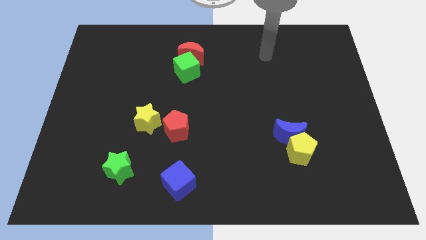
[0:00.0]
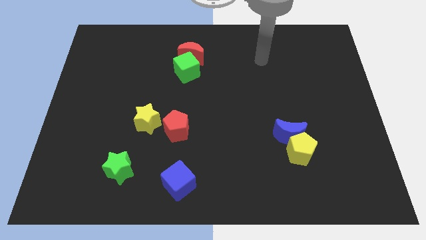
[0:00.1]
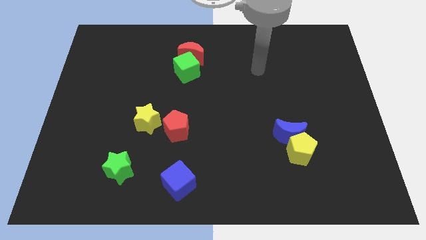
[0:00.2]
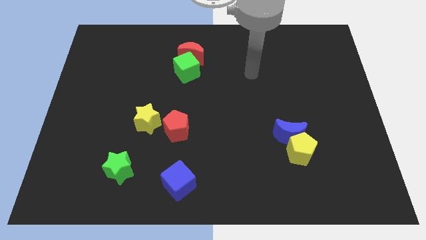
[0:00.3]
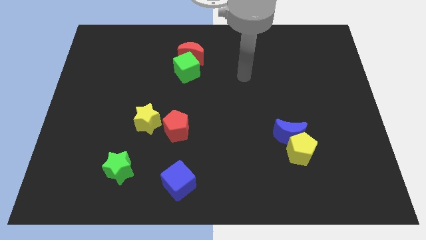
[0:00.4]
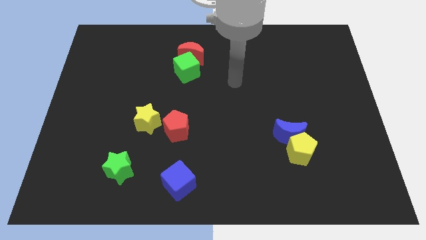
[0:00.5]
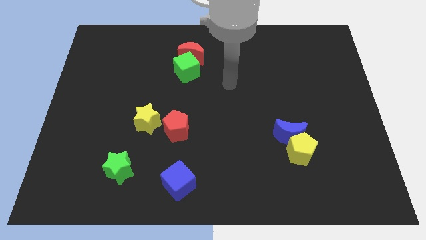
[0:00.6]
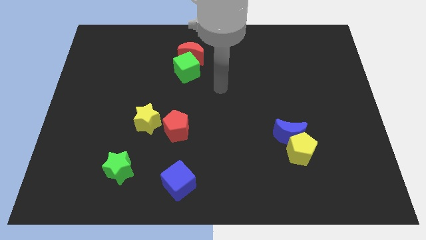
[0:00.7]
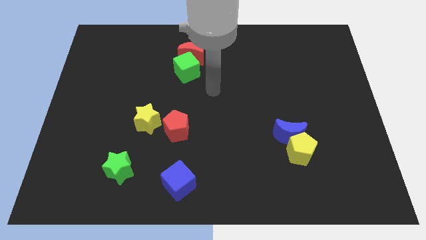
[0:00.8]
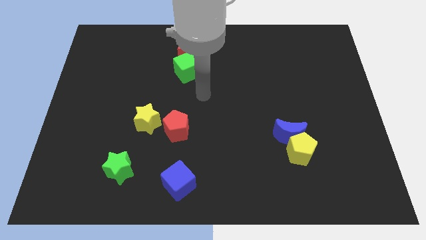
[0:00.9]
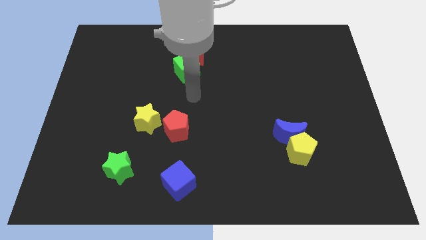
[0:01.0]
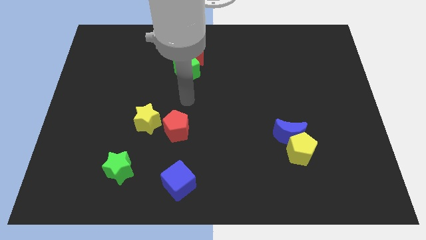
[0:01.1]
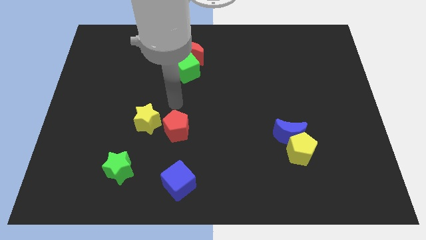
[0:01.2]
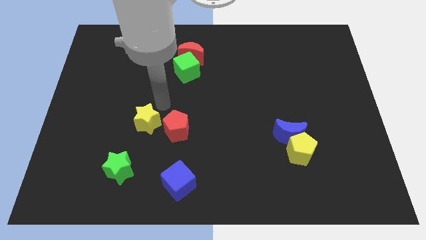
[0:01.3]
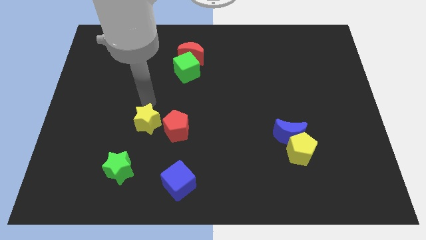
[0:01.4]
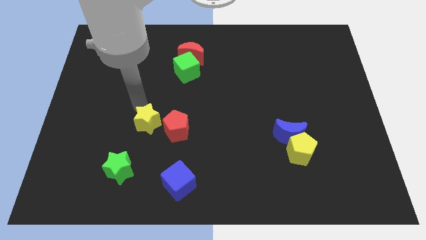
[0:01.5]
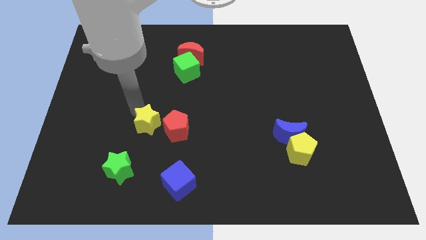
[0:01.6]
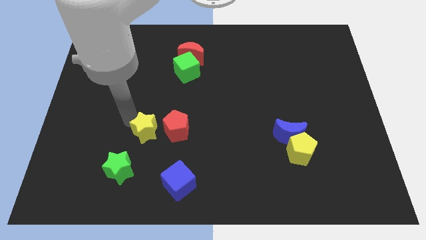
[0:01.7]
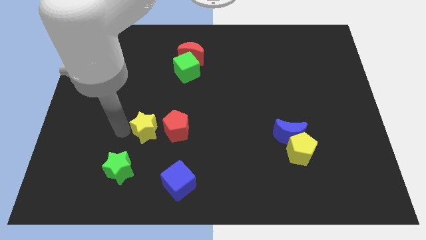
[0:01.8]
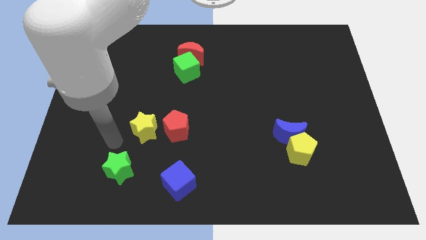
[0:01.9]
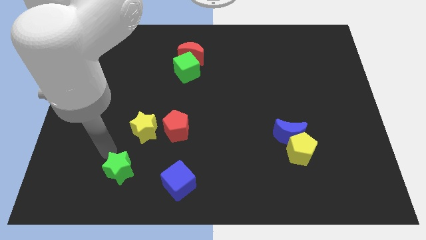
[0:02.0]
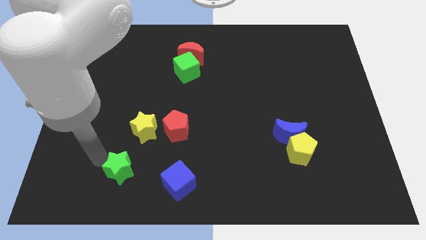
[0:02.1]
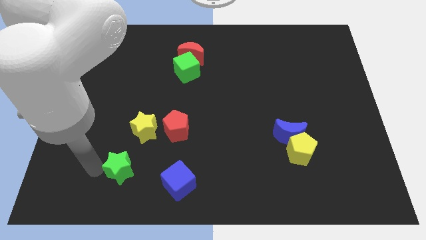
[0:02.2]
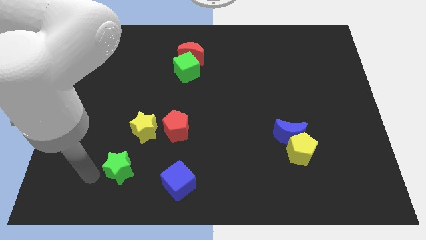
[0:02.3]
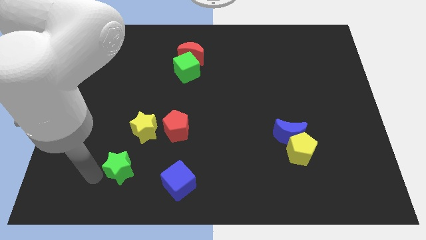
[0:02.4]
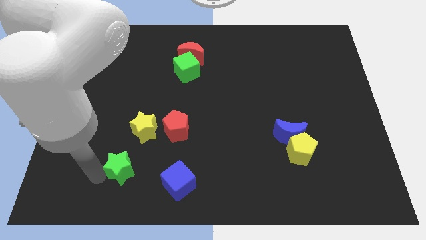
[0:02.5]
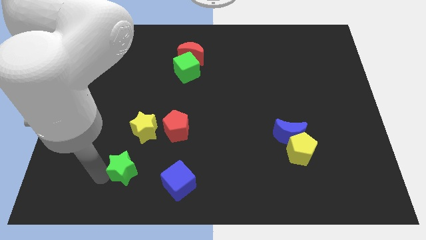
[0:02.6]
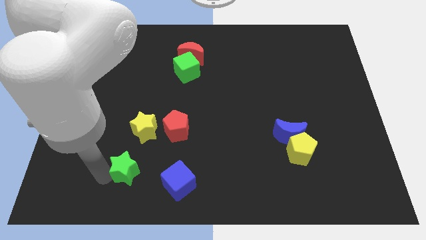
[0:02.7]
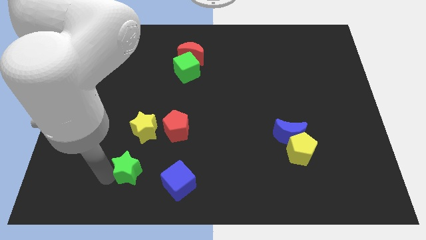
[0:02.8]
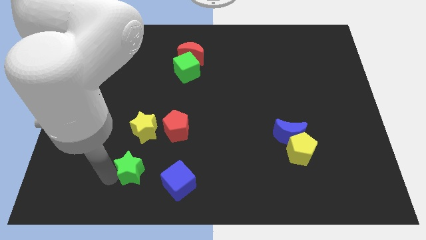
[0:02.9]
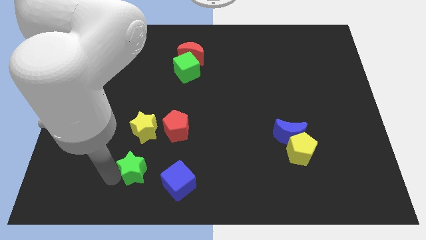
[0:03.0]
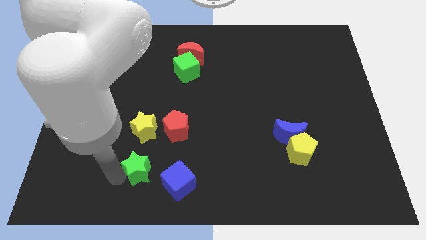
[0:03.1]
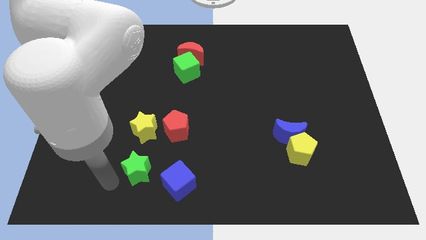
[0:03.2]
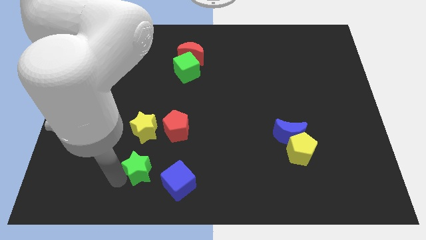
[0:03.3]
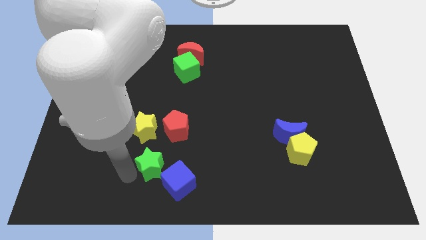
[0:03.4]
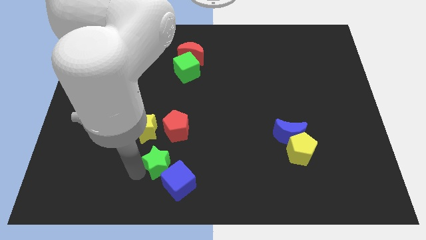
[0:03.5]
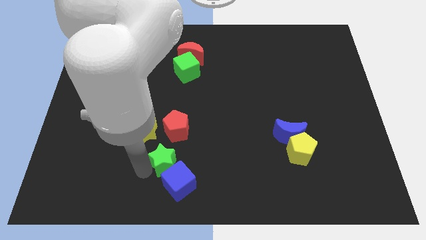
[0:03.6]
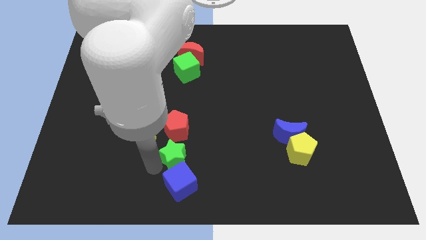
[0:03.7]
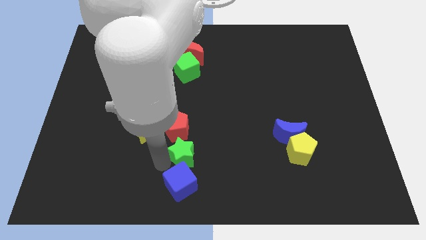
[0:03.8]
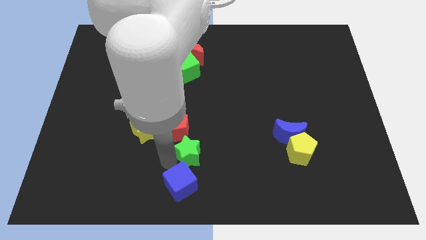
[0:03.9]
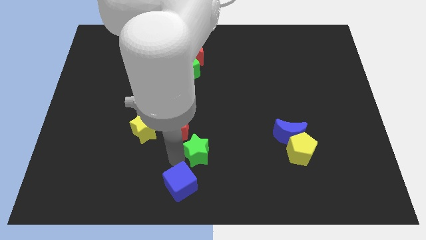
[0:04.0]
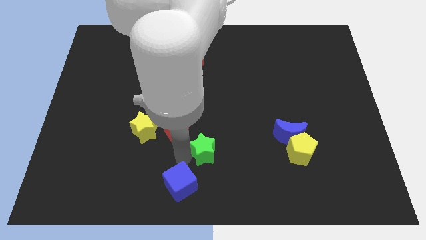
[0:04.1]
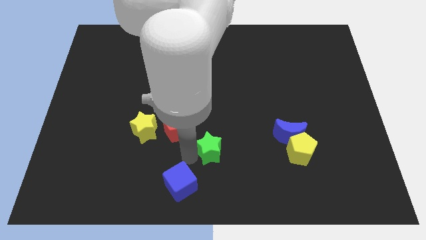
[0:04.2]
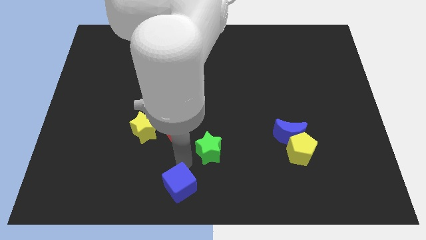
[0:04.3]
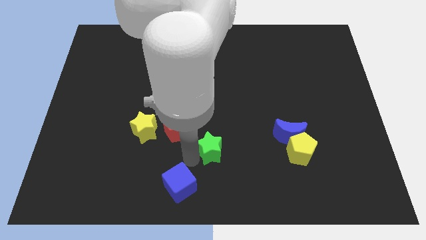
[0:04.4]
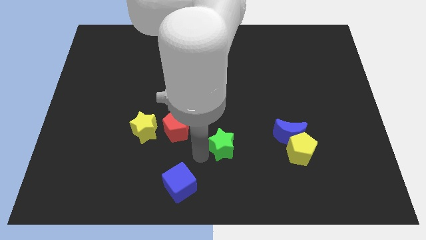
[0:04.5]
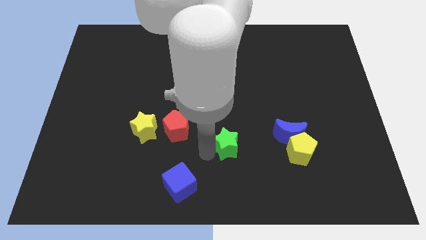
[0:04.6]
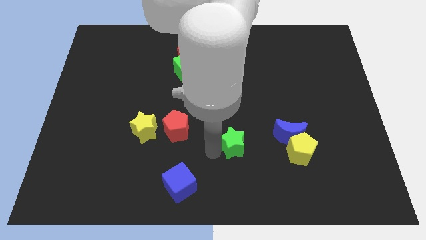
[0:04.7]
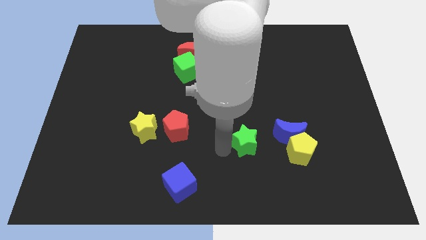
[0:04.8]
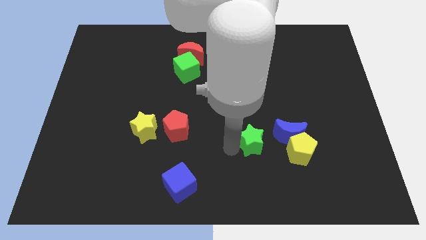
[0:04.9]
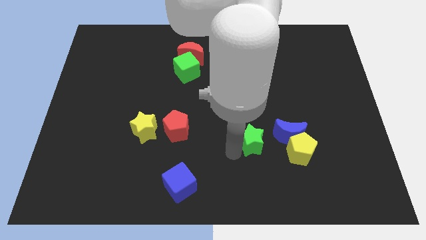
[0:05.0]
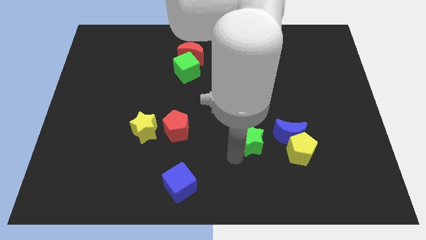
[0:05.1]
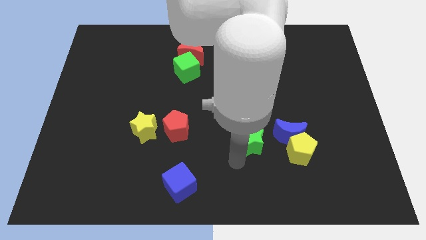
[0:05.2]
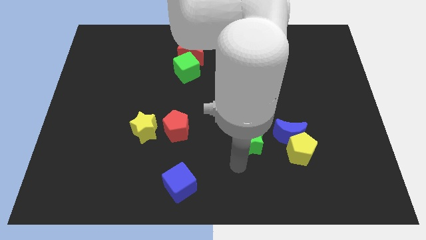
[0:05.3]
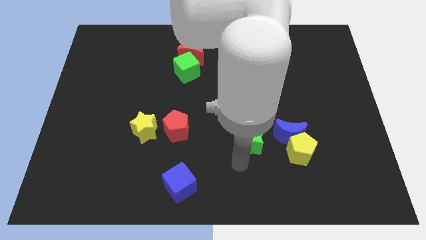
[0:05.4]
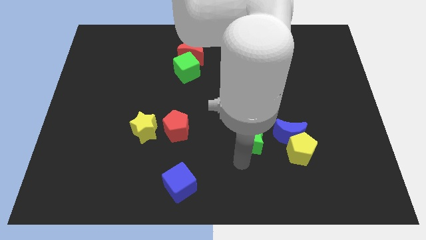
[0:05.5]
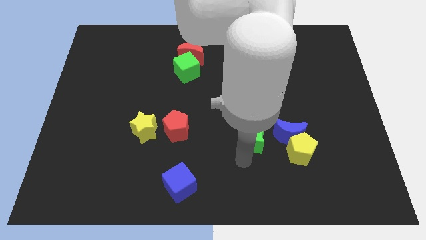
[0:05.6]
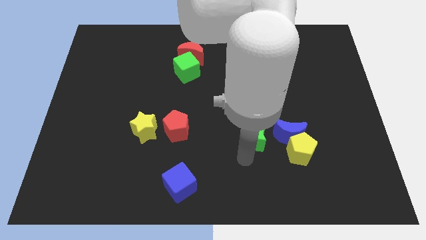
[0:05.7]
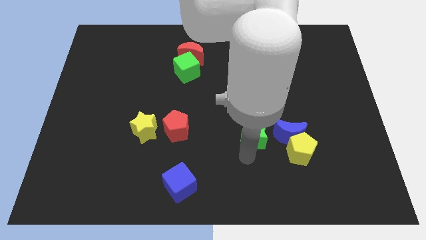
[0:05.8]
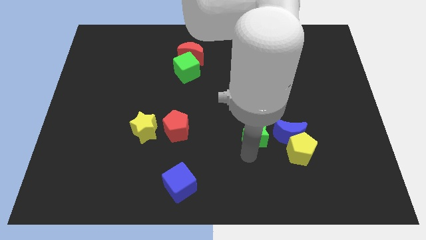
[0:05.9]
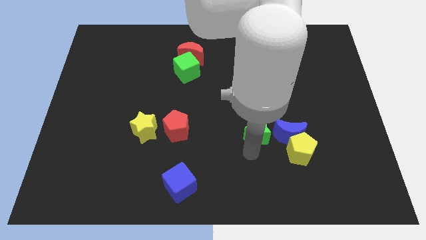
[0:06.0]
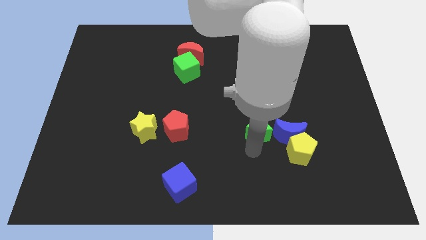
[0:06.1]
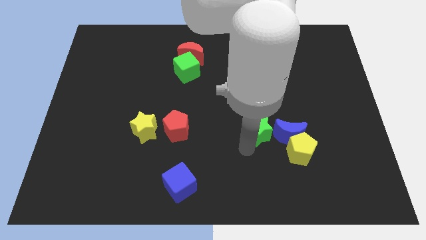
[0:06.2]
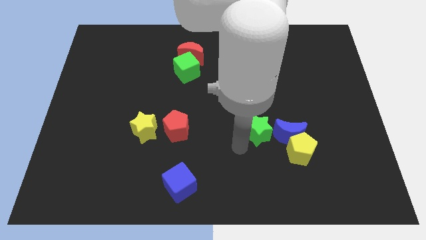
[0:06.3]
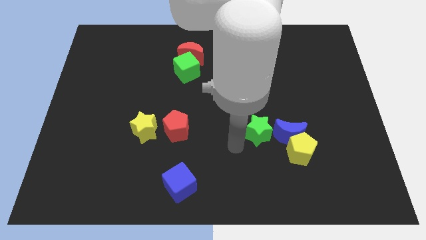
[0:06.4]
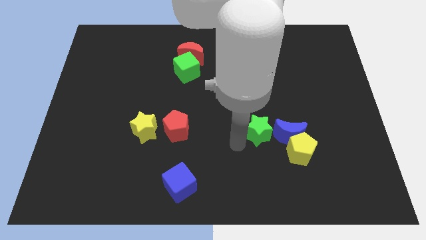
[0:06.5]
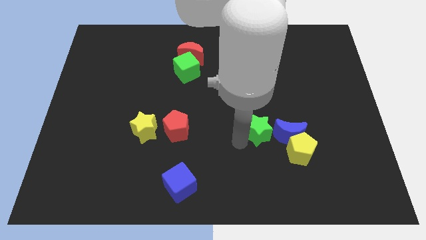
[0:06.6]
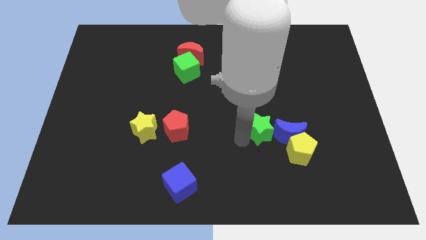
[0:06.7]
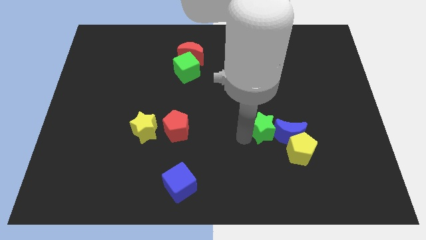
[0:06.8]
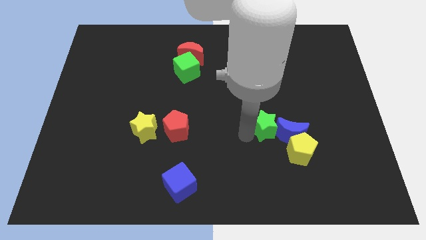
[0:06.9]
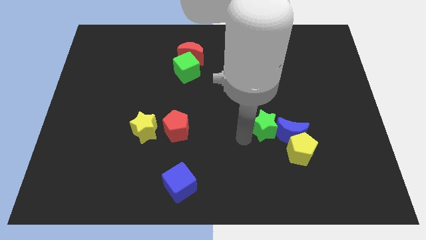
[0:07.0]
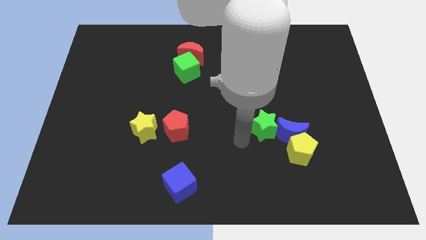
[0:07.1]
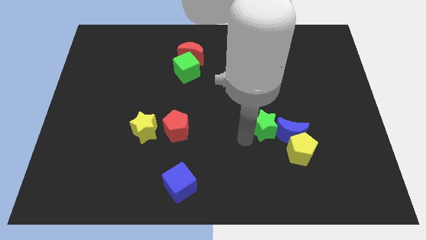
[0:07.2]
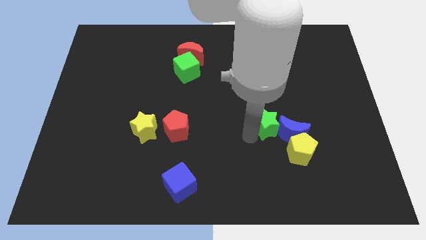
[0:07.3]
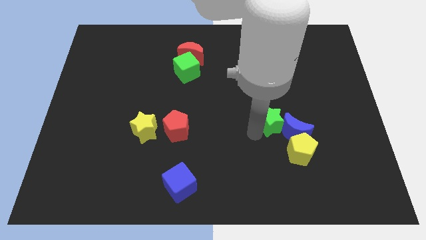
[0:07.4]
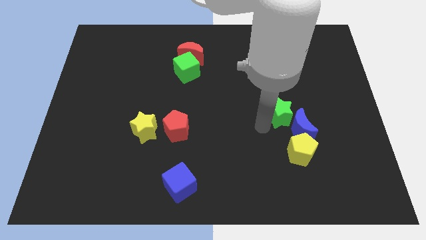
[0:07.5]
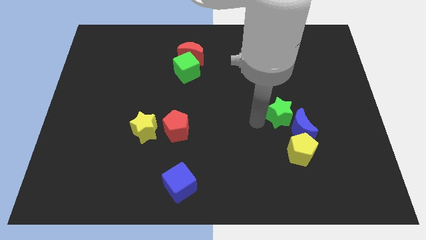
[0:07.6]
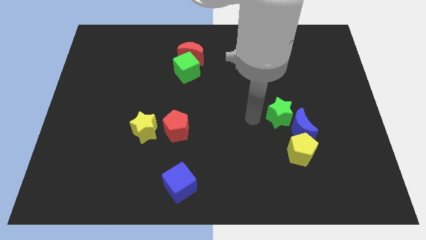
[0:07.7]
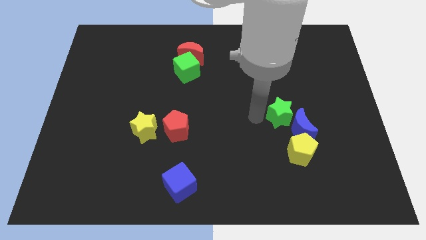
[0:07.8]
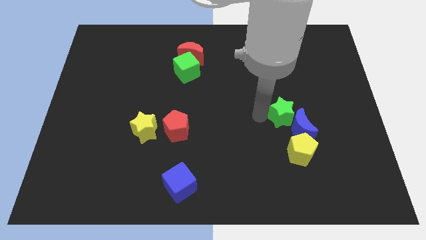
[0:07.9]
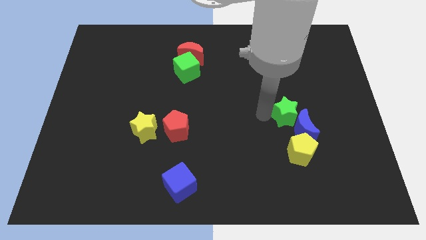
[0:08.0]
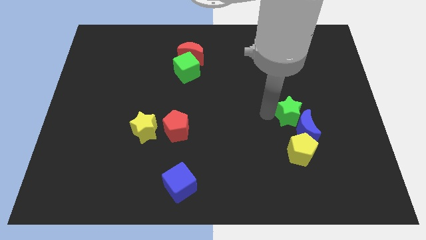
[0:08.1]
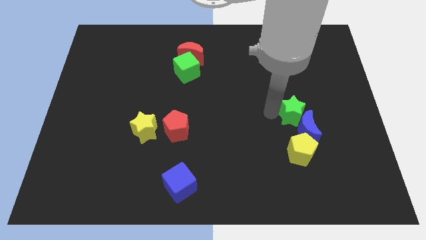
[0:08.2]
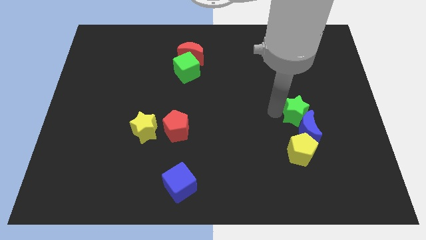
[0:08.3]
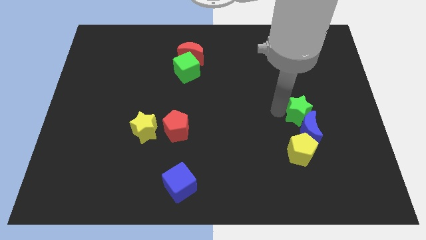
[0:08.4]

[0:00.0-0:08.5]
slide the green star diagonally up and to the right of the blue moon
